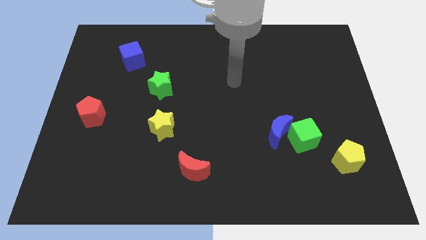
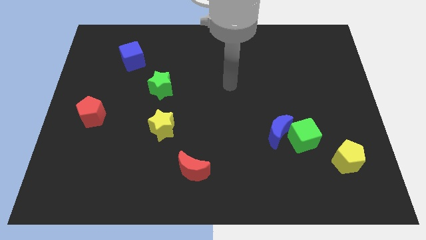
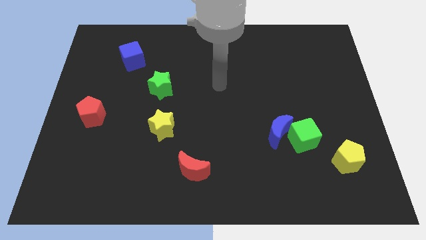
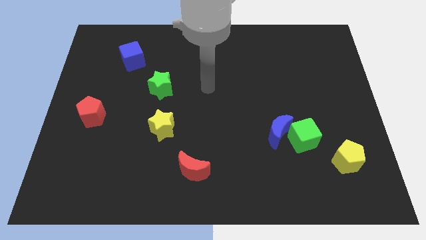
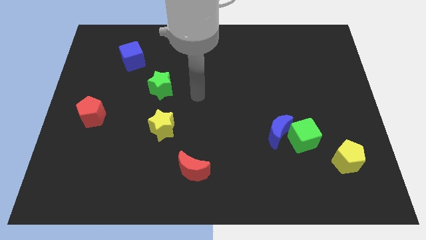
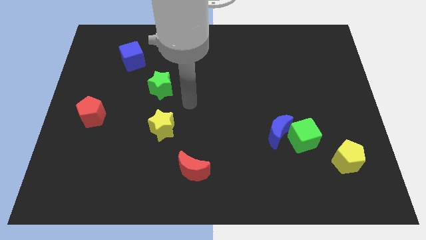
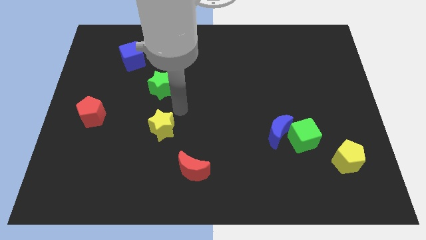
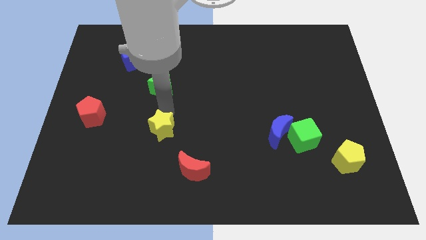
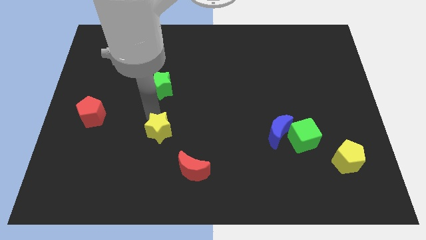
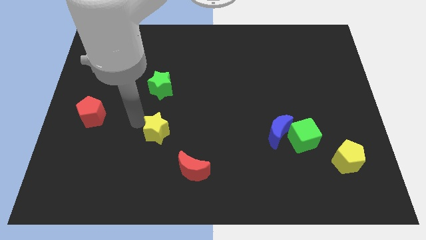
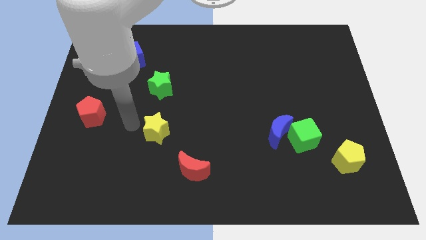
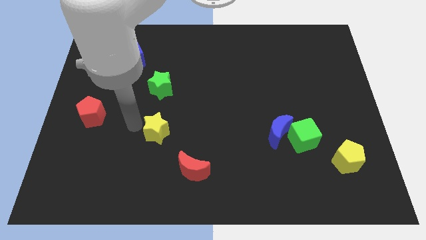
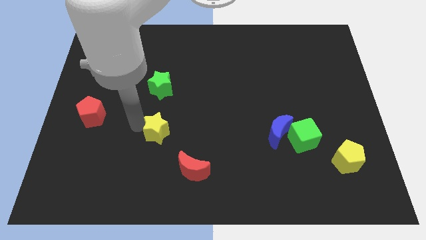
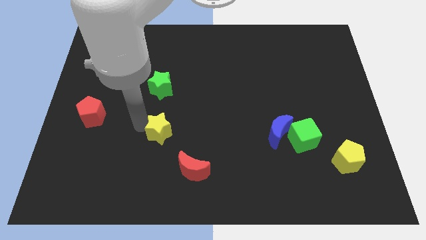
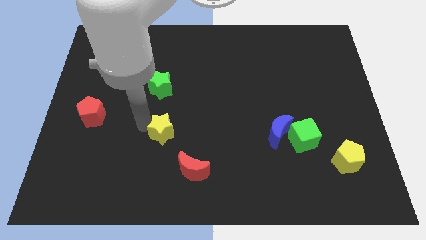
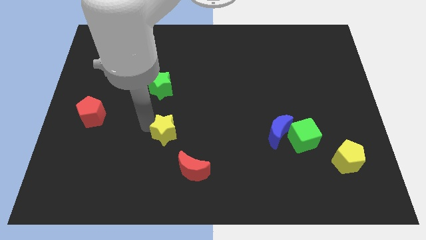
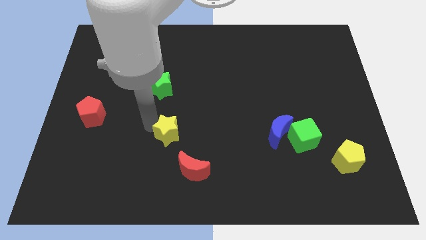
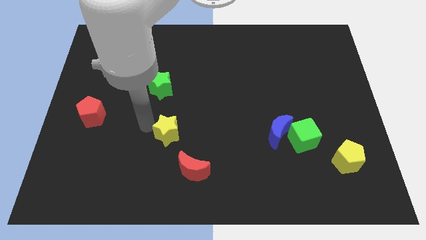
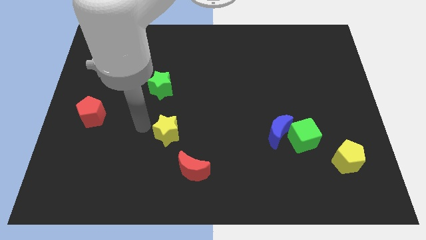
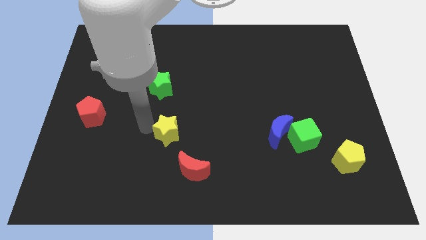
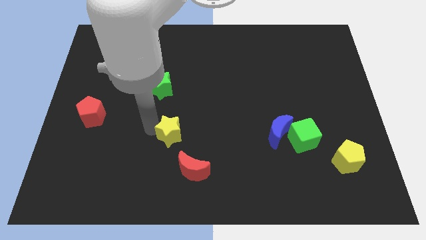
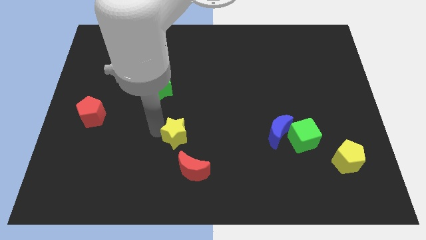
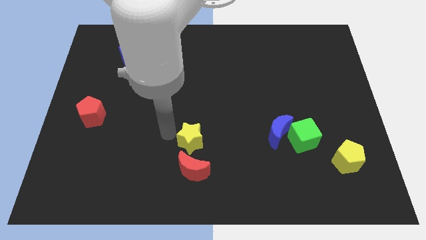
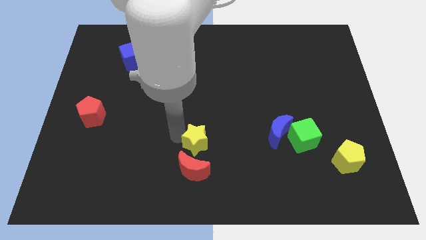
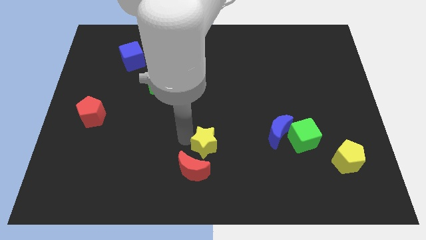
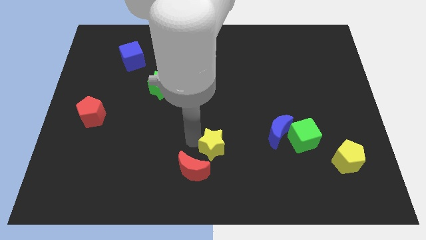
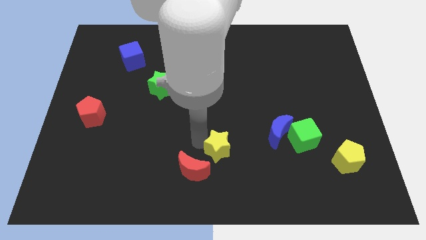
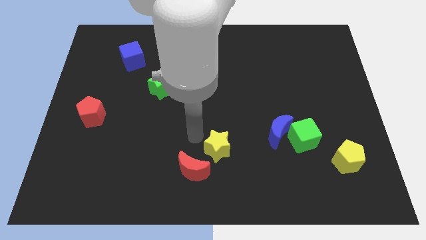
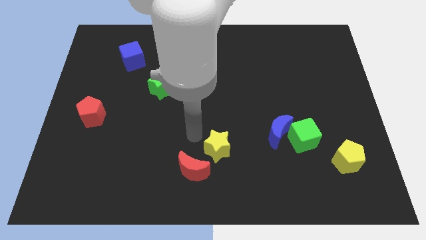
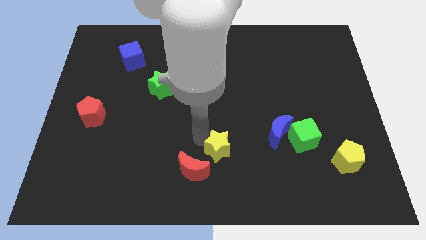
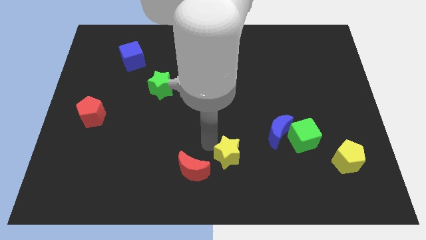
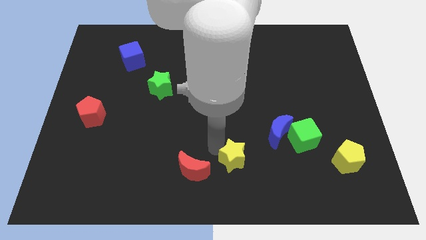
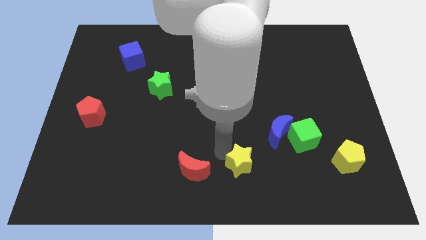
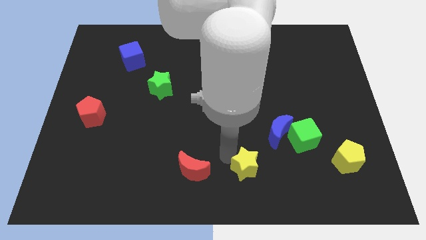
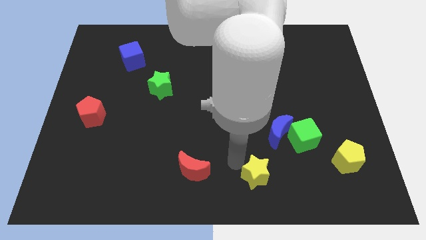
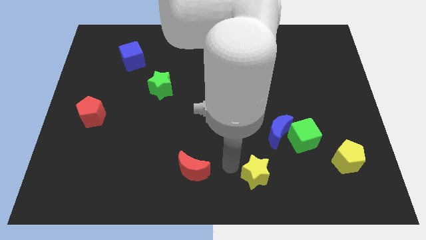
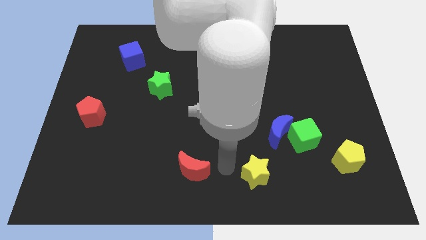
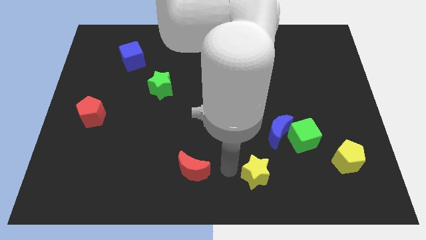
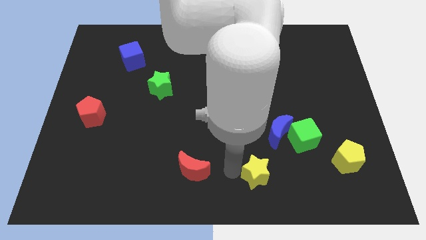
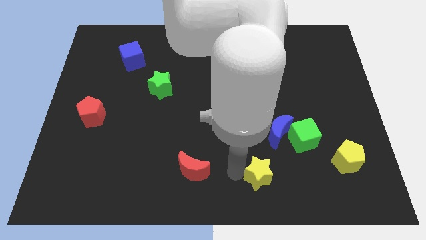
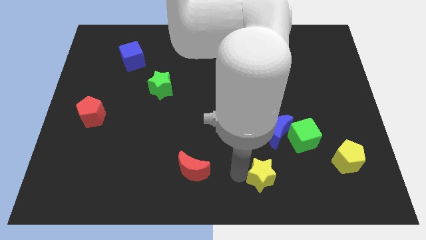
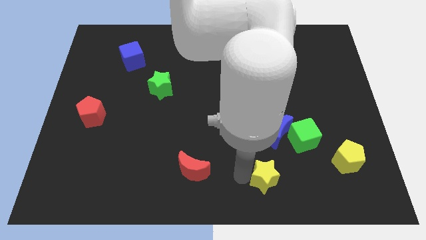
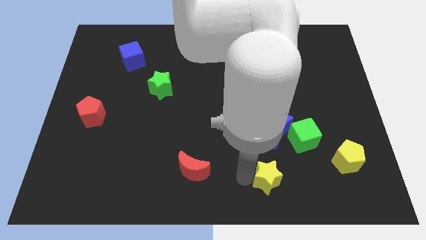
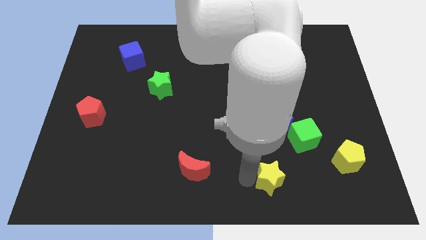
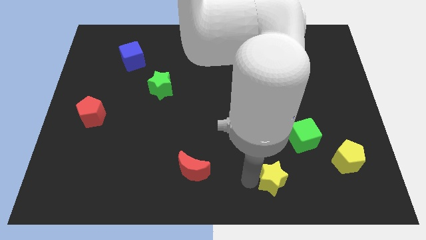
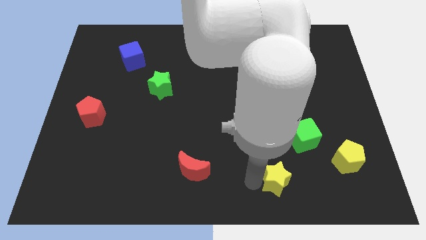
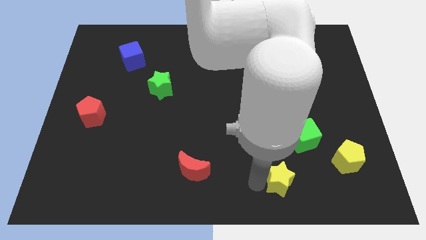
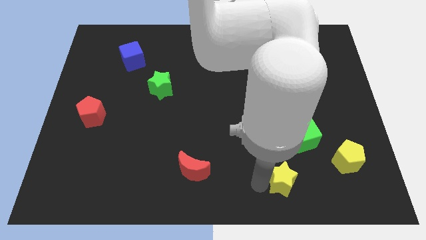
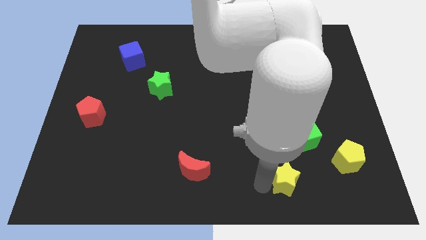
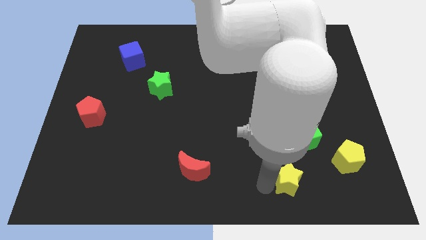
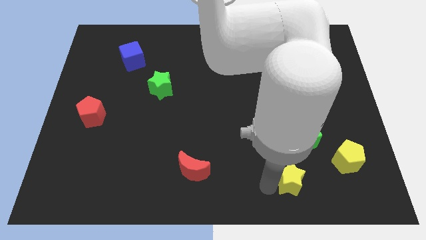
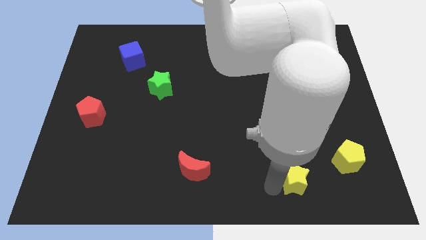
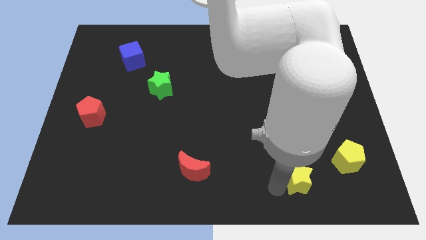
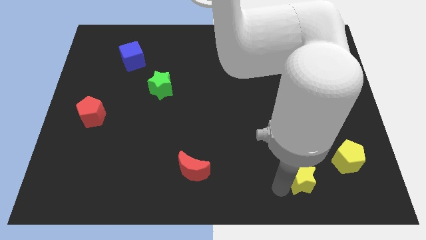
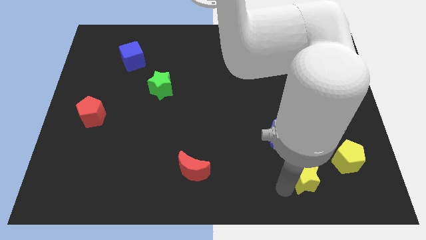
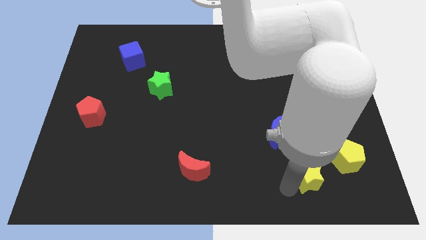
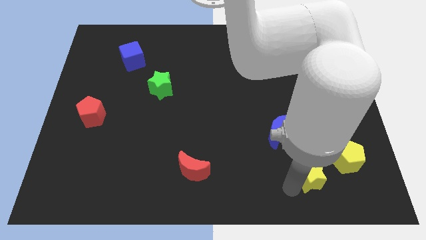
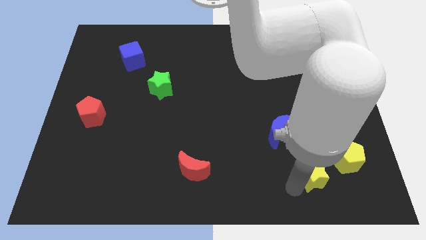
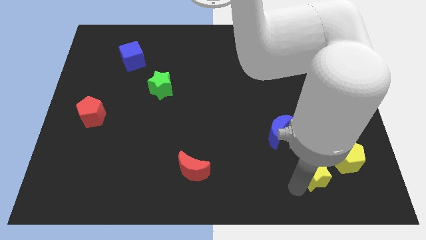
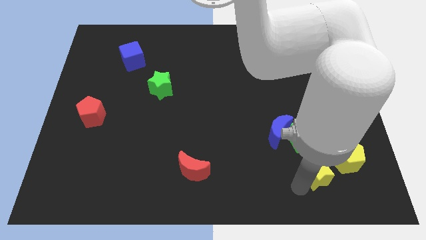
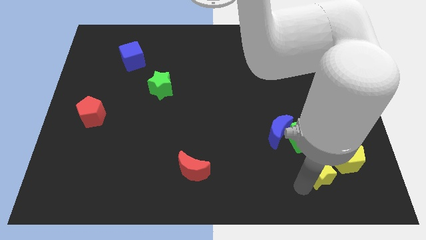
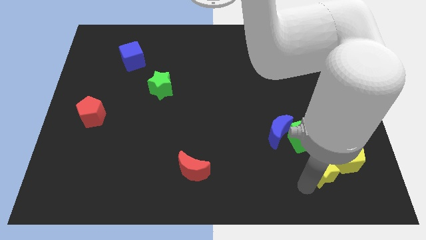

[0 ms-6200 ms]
slide the yellow star close to the yellow pentagon

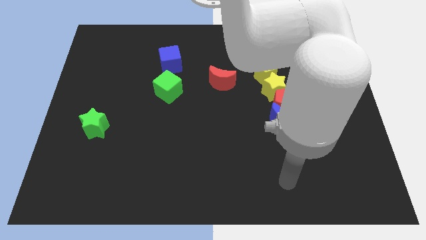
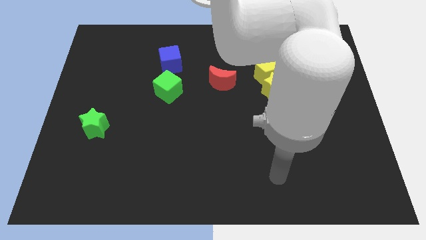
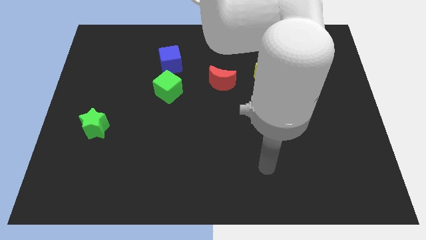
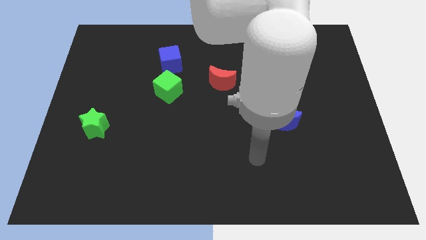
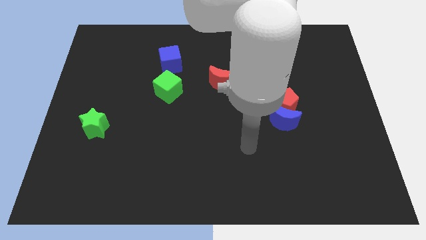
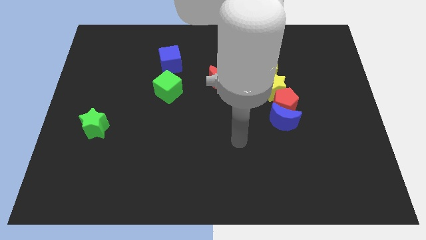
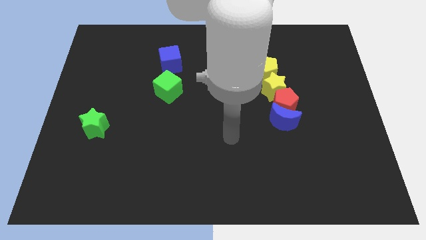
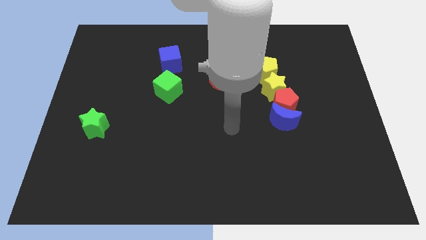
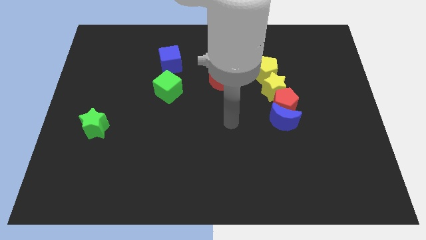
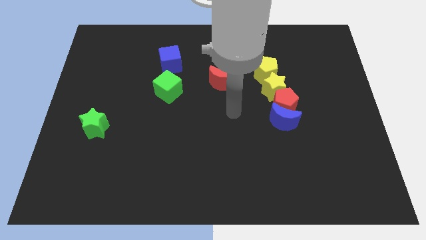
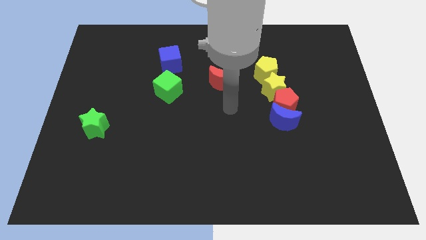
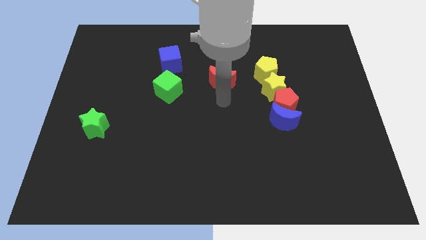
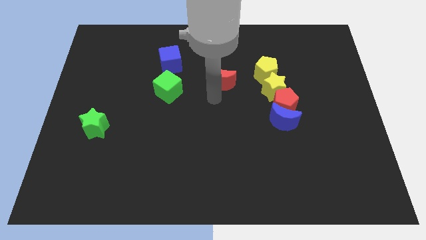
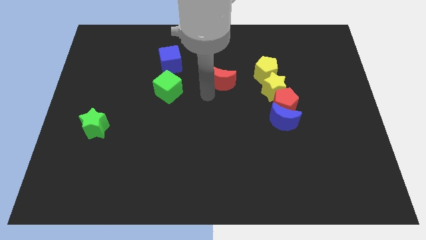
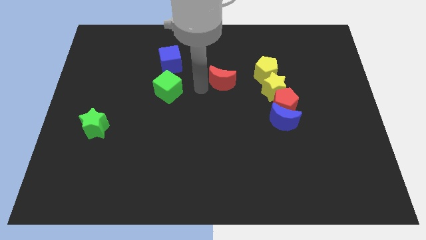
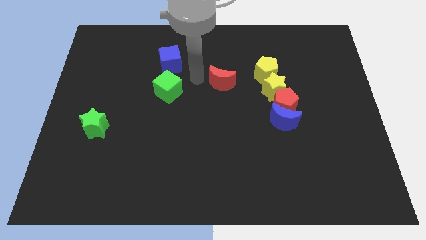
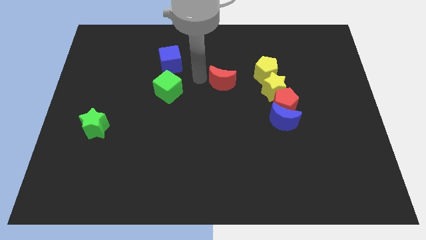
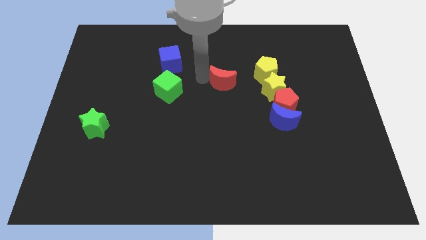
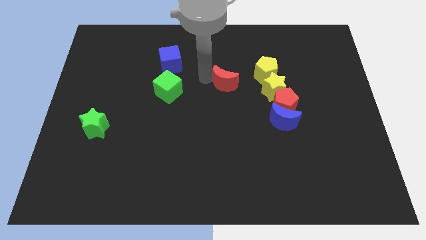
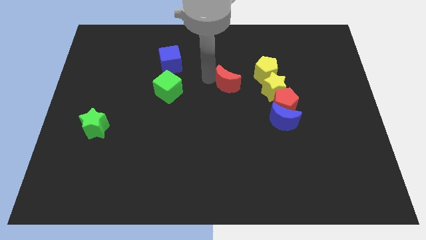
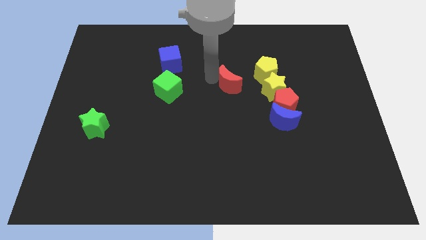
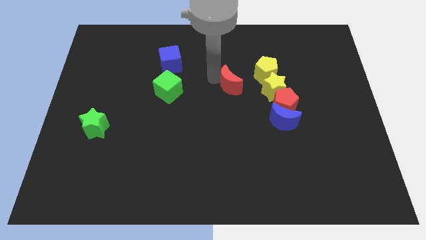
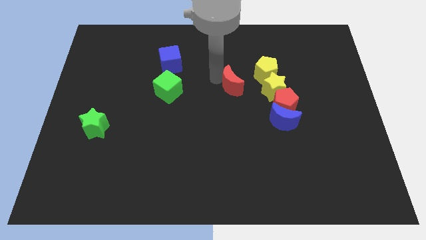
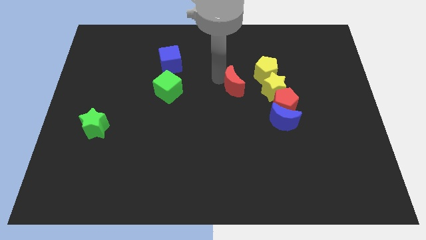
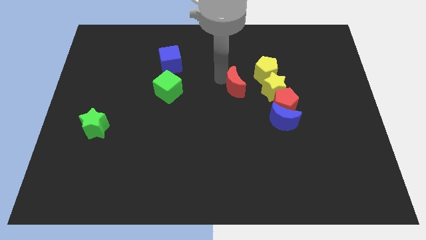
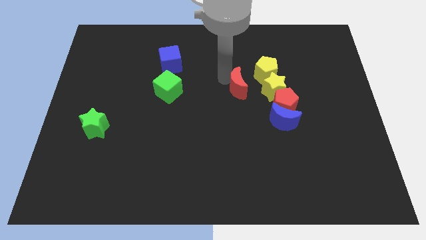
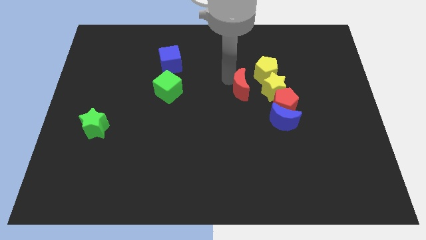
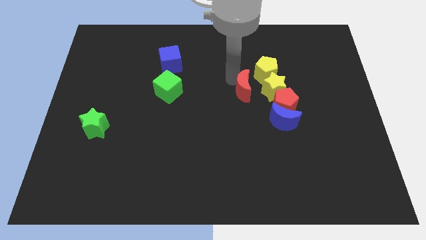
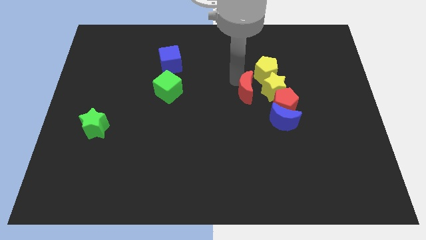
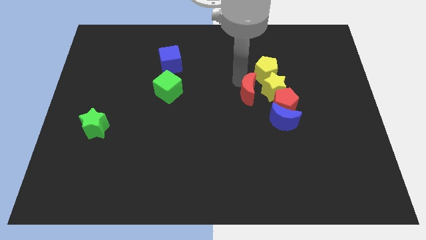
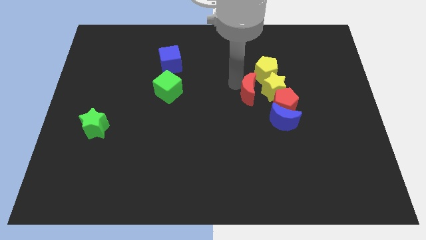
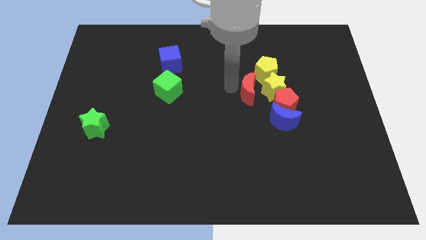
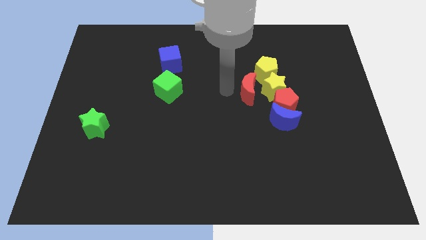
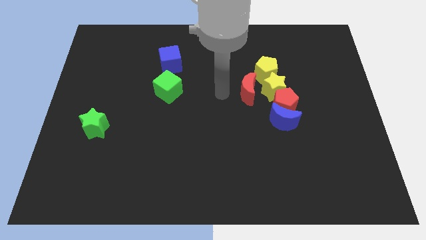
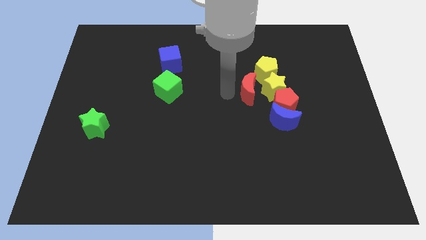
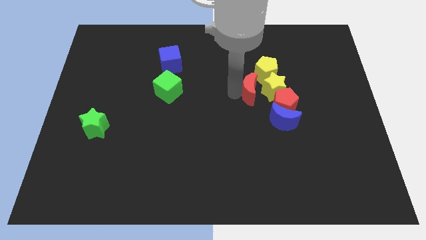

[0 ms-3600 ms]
push the red moon towards the yellow star
